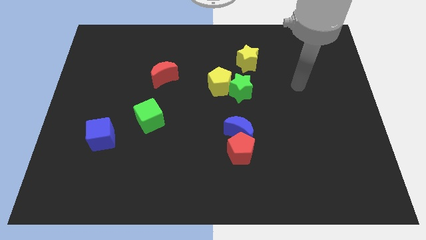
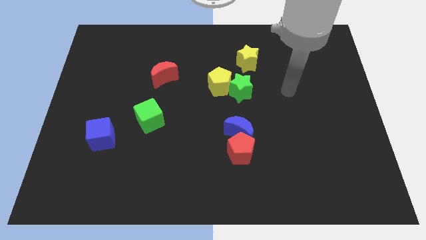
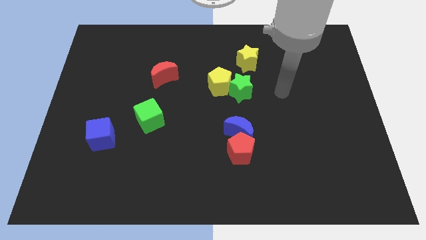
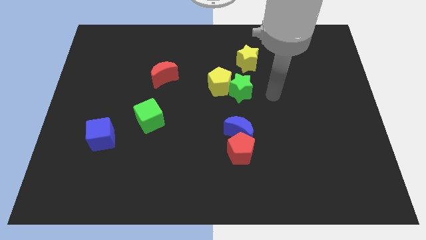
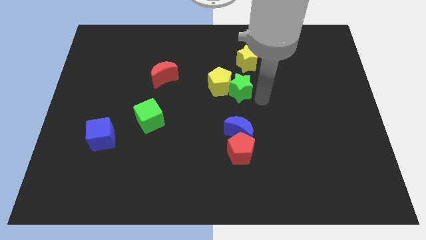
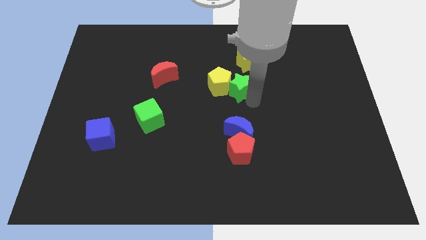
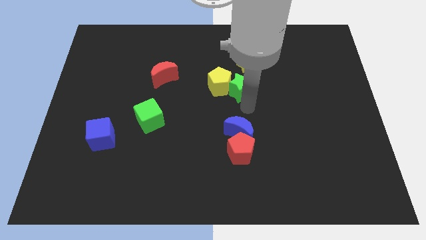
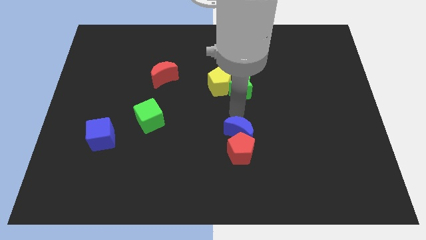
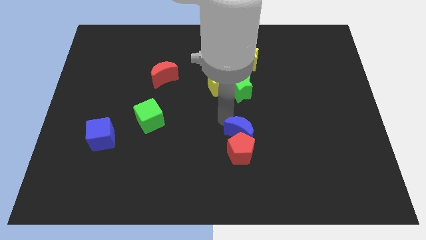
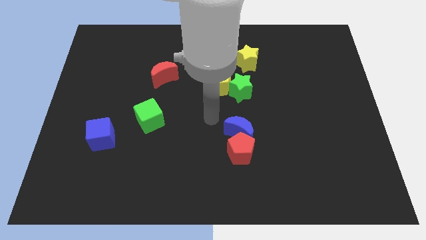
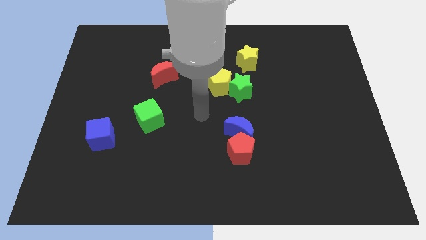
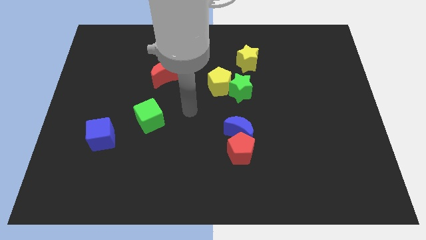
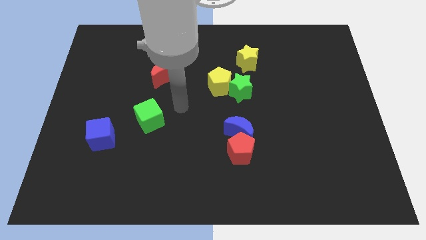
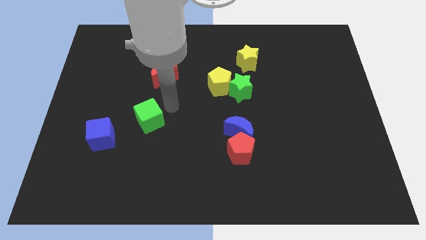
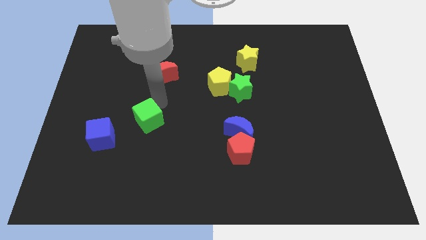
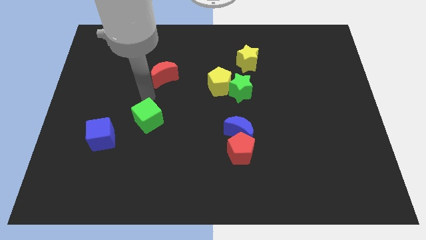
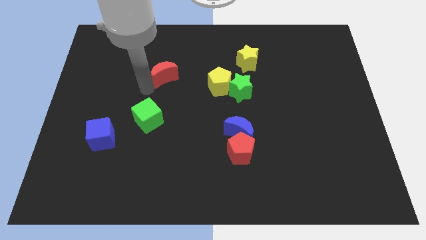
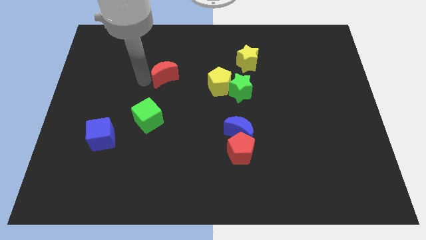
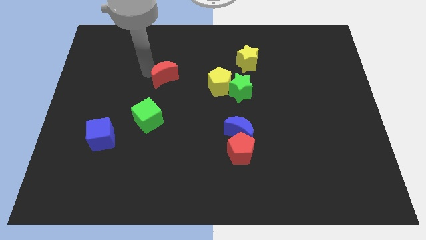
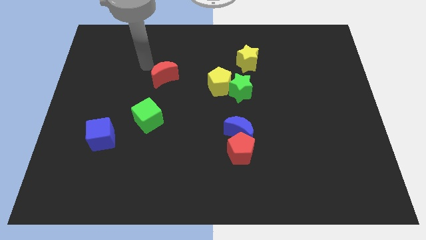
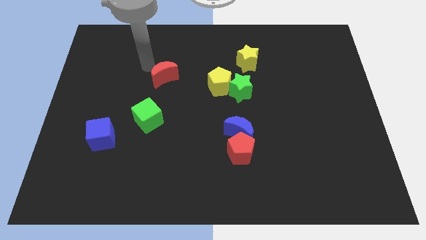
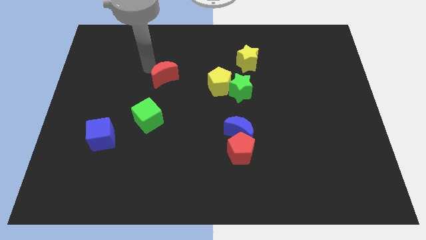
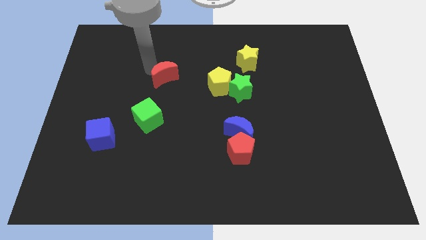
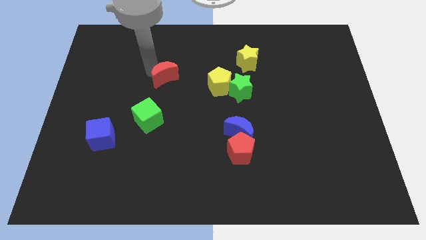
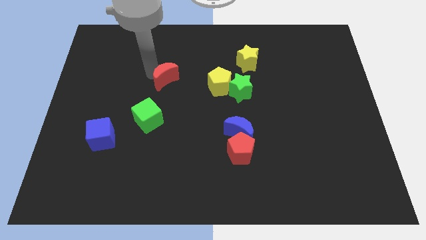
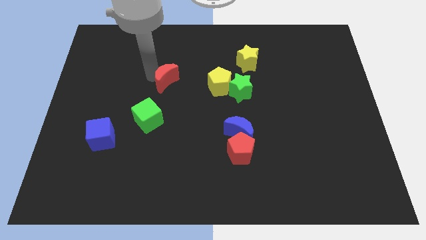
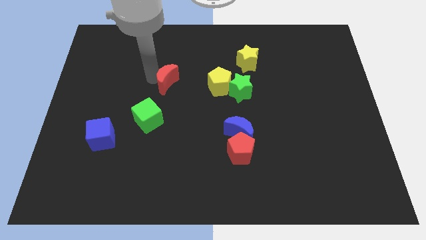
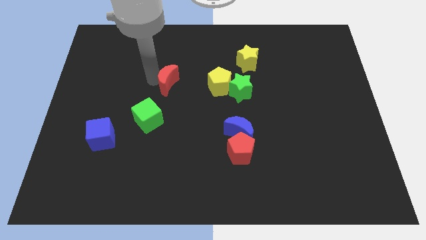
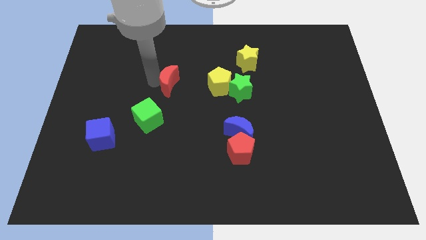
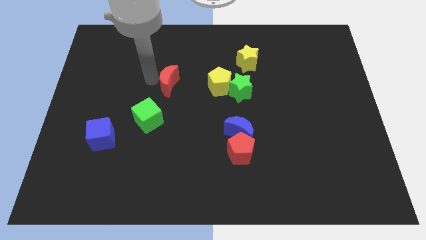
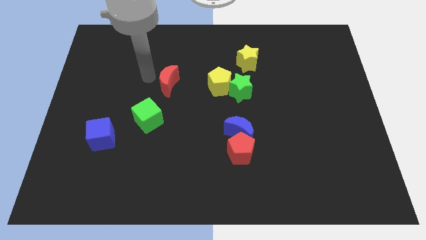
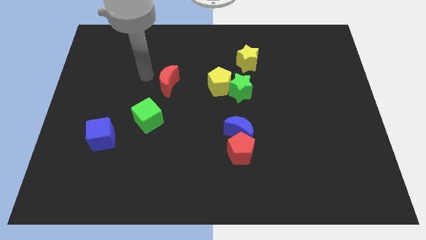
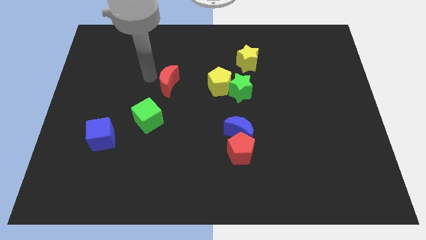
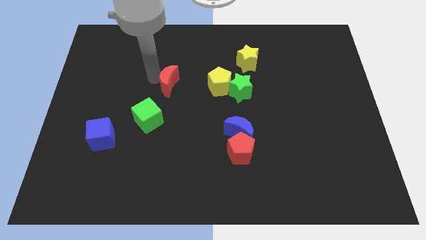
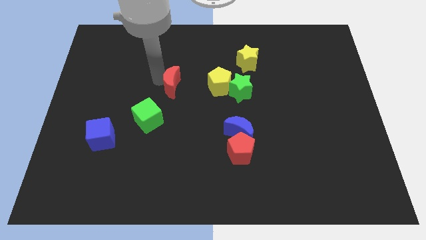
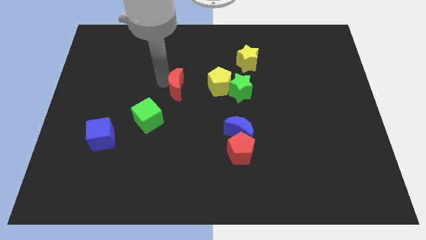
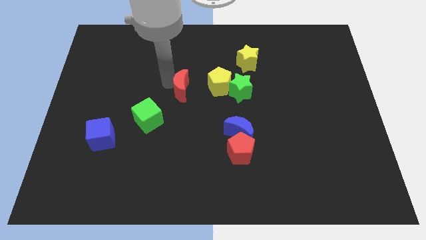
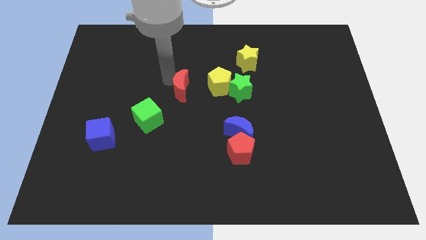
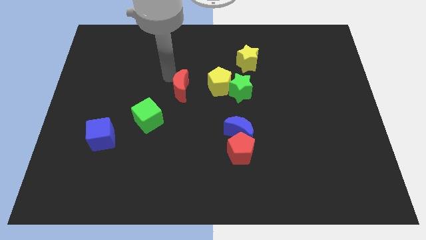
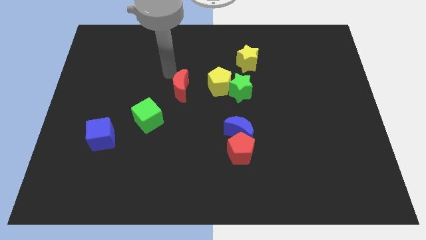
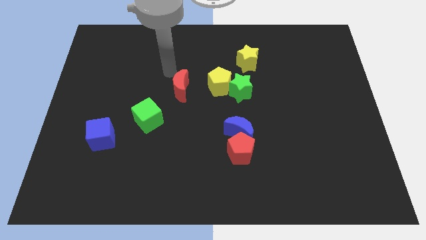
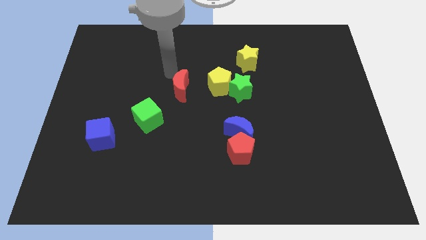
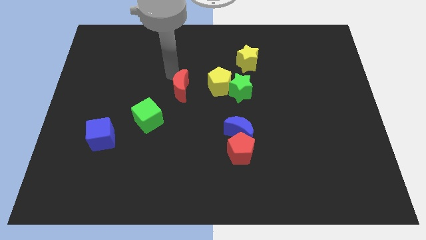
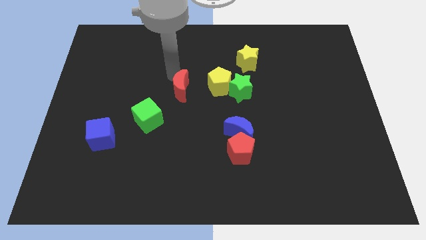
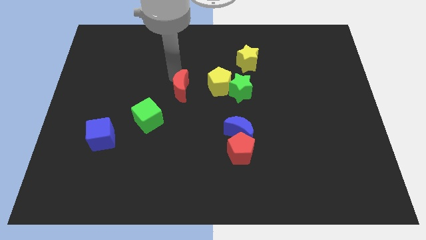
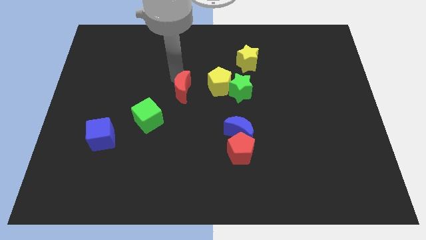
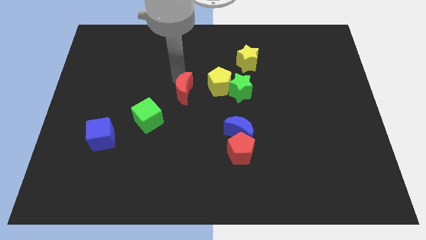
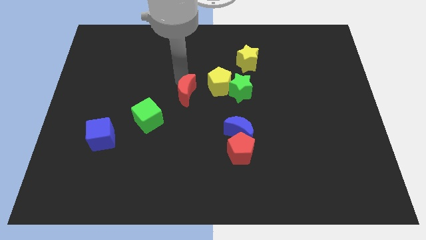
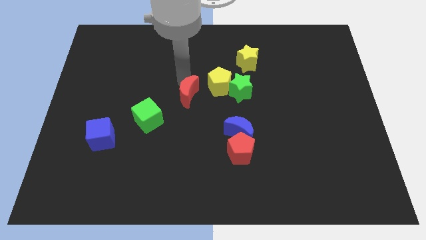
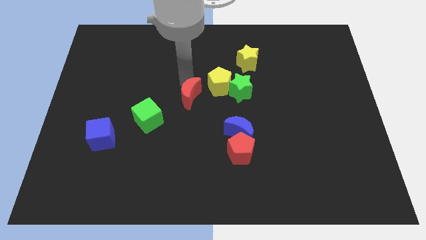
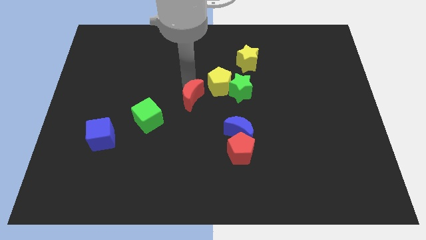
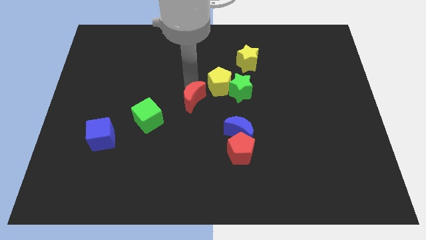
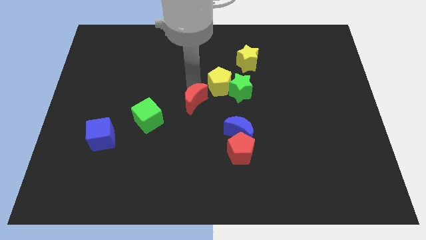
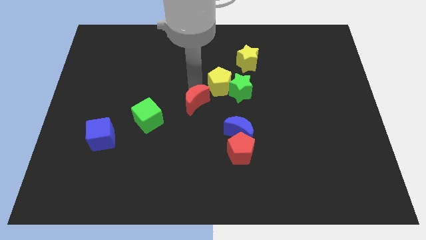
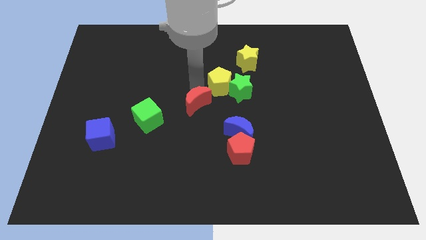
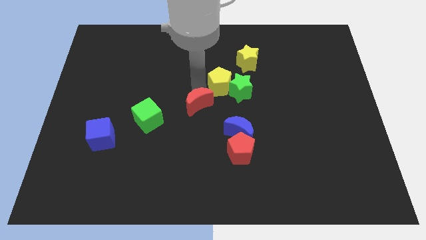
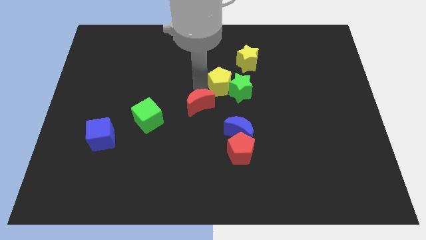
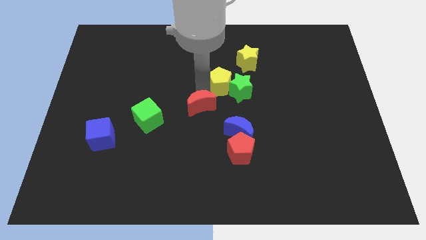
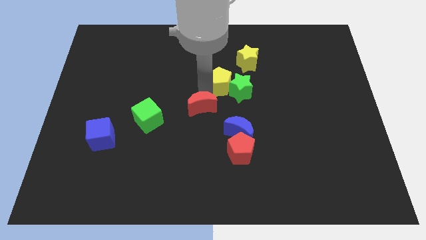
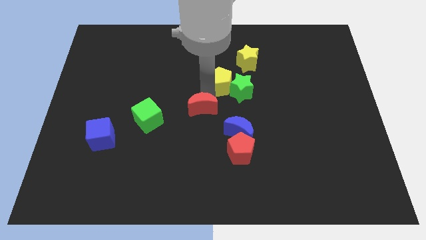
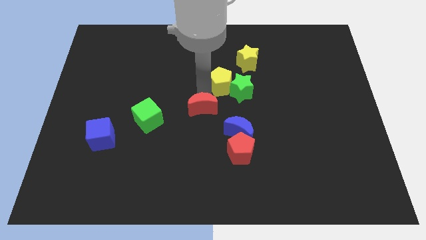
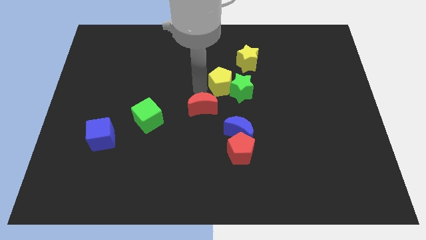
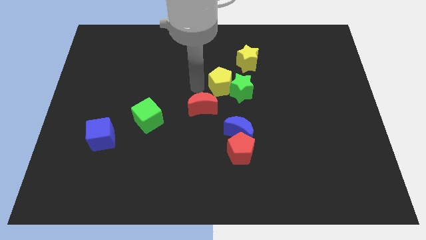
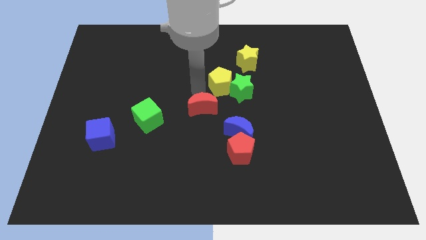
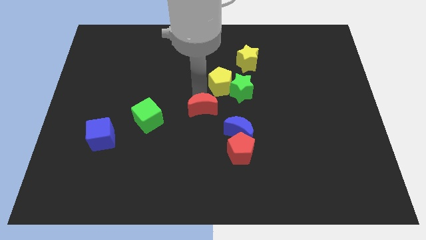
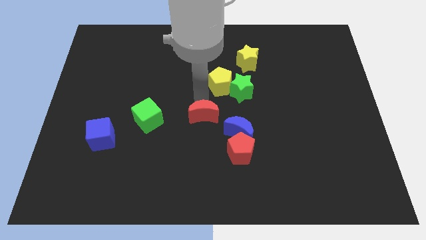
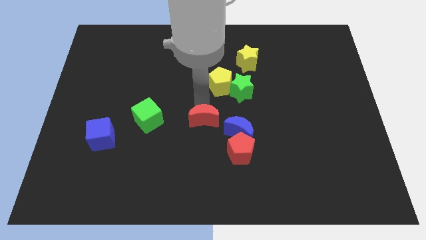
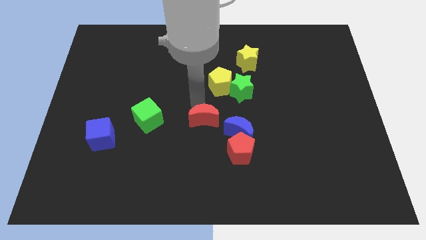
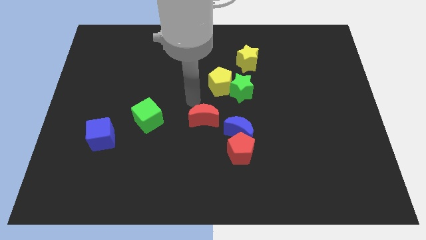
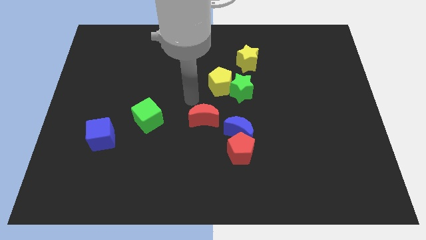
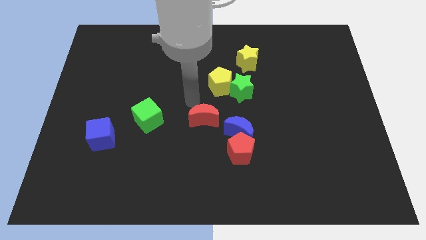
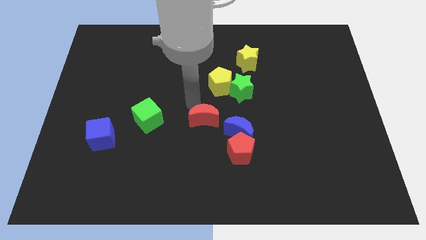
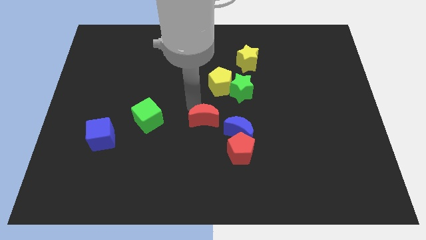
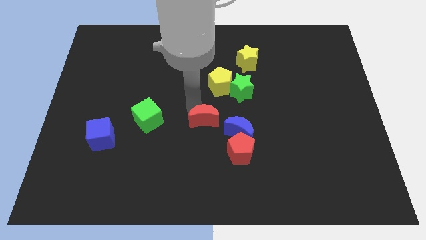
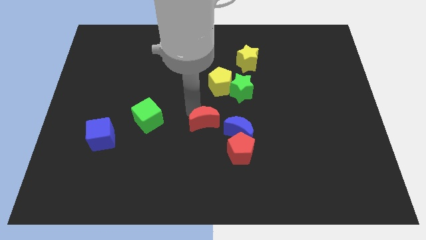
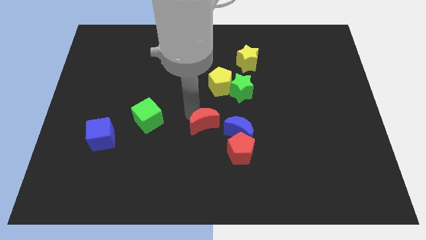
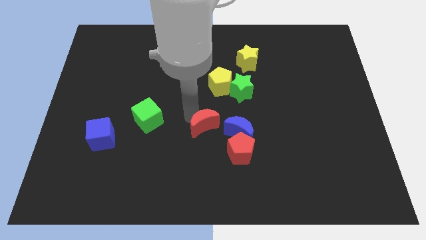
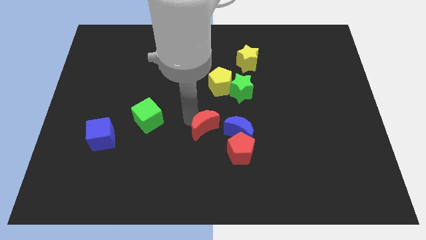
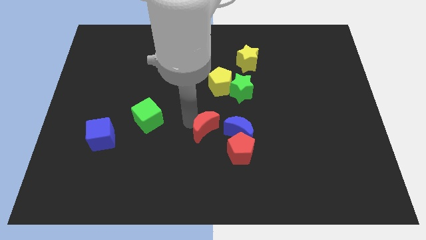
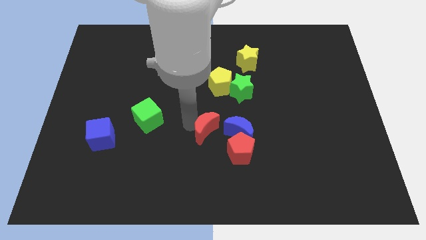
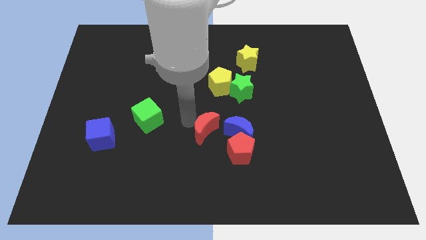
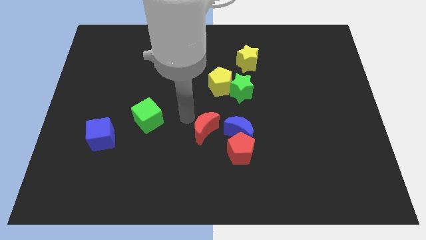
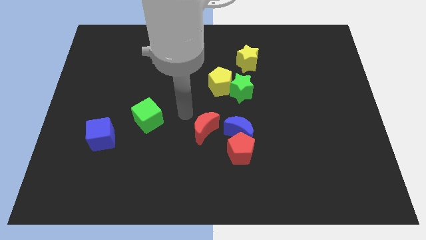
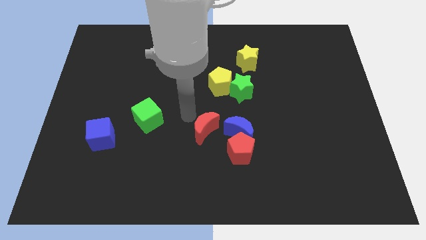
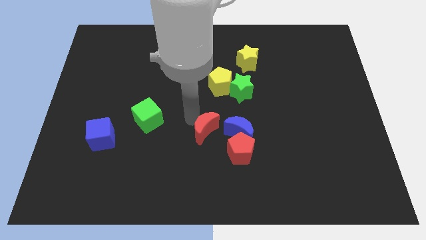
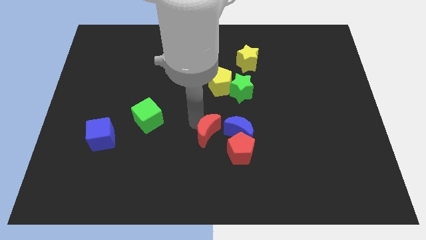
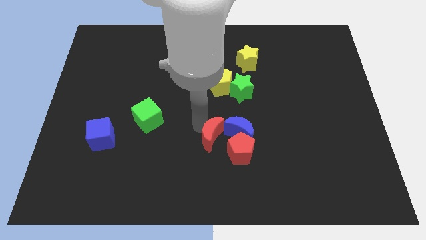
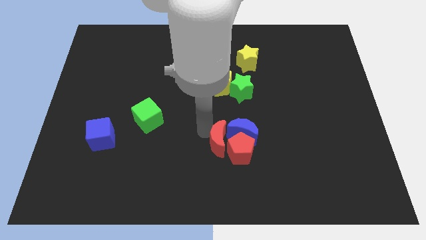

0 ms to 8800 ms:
slide the red moon next to the red pentagon
